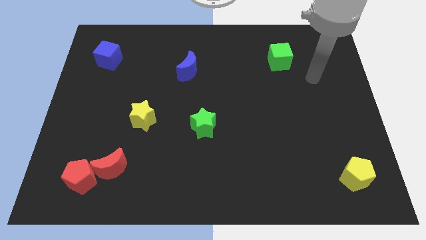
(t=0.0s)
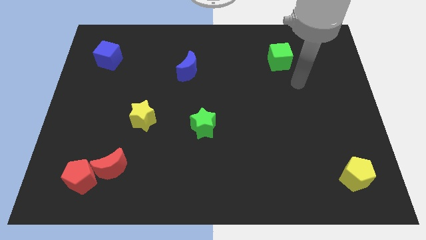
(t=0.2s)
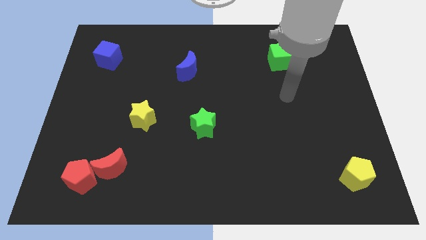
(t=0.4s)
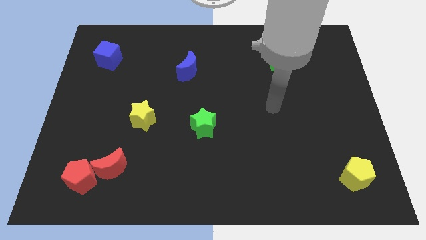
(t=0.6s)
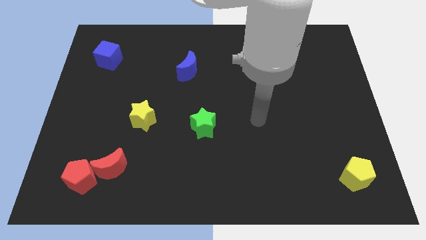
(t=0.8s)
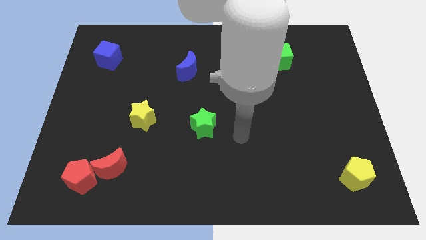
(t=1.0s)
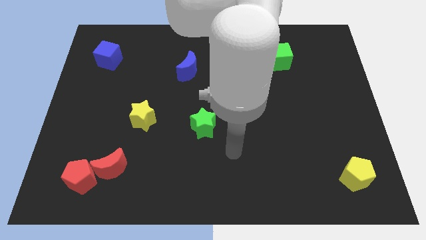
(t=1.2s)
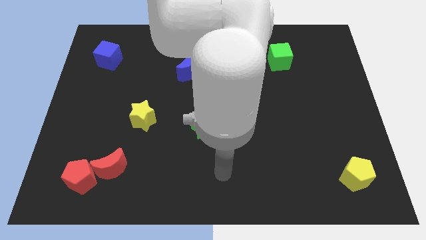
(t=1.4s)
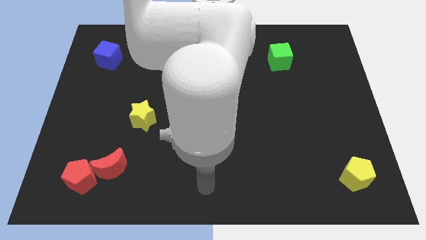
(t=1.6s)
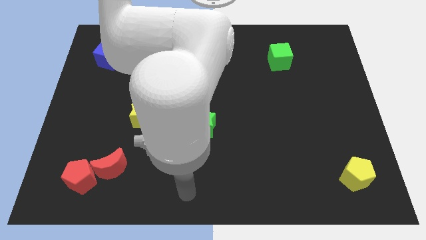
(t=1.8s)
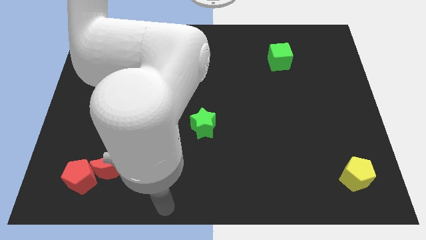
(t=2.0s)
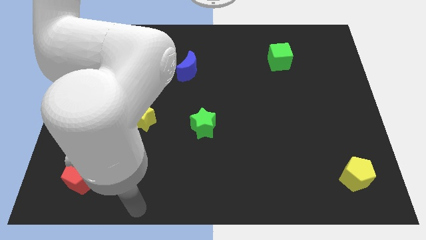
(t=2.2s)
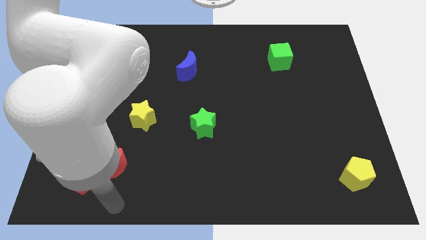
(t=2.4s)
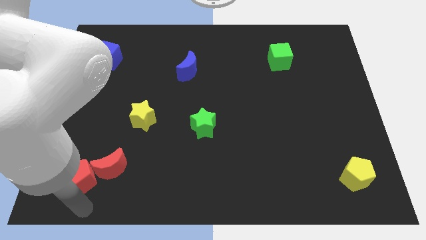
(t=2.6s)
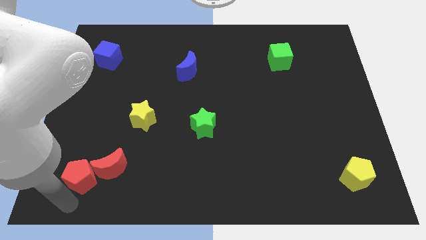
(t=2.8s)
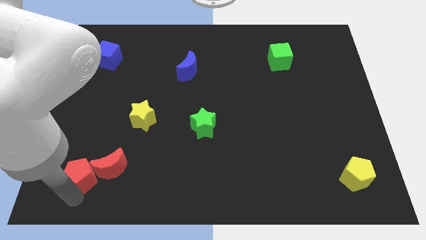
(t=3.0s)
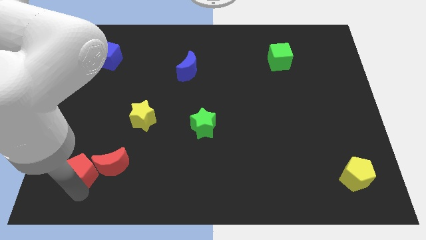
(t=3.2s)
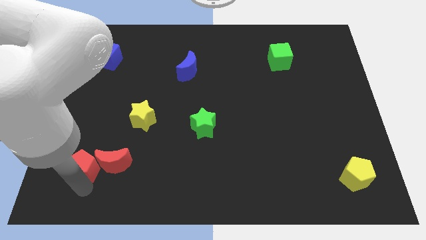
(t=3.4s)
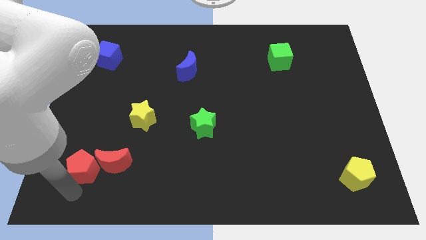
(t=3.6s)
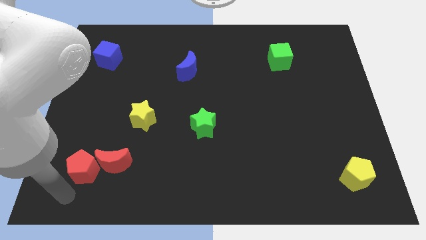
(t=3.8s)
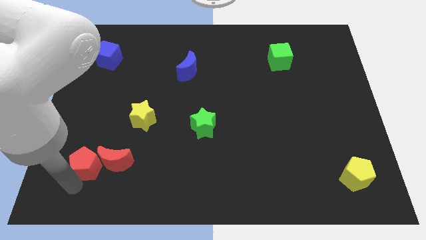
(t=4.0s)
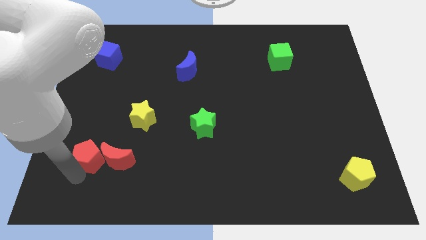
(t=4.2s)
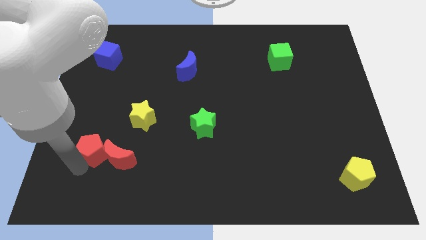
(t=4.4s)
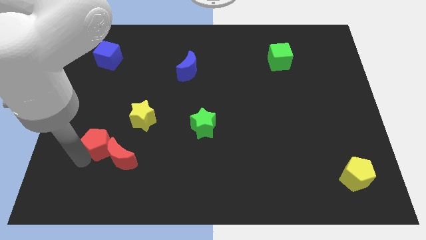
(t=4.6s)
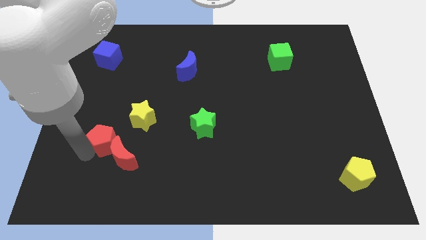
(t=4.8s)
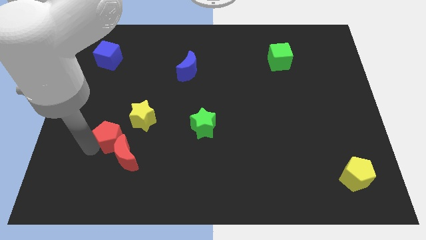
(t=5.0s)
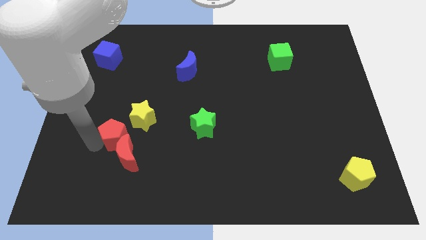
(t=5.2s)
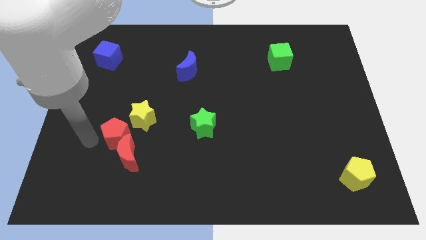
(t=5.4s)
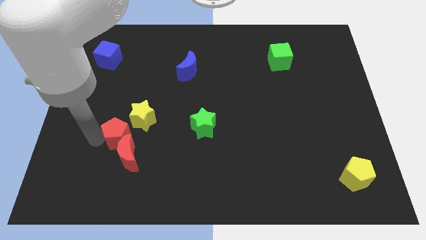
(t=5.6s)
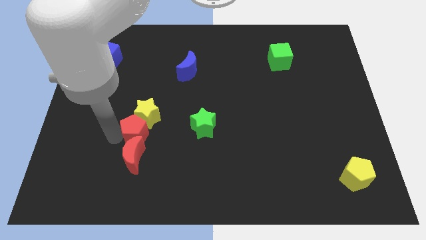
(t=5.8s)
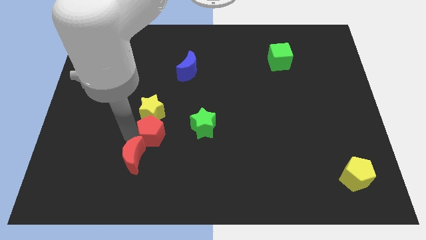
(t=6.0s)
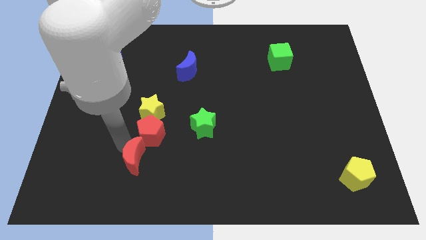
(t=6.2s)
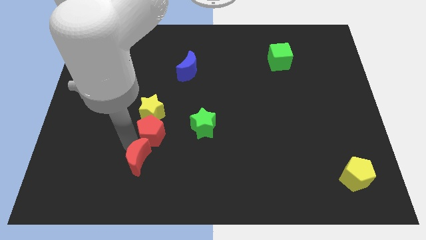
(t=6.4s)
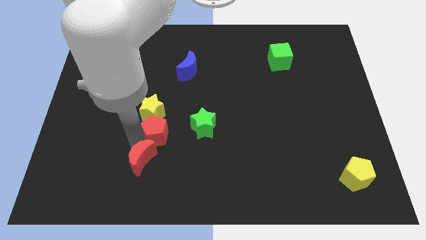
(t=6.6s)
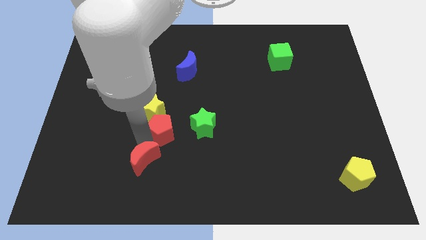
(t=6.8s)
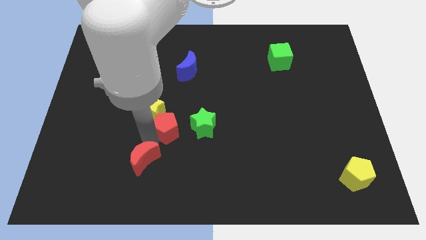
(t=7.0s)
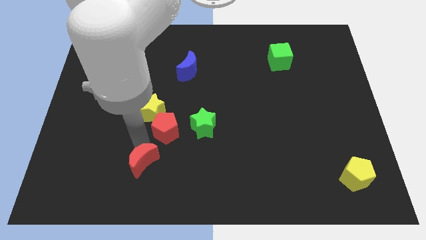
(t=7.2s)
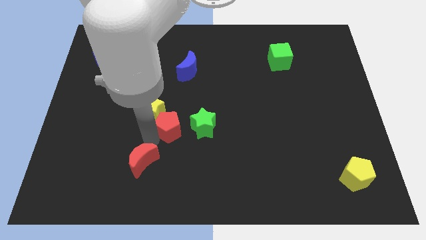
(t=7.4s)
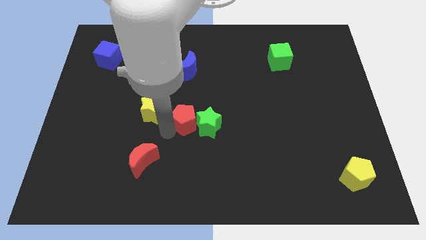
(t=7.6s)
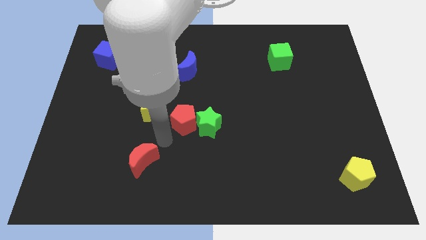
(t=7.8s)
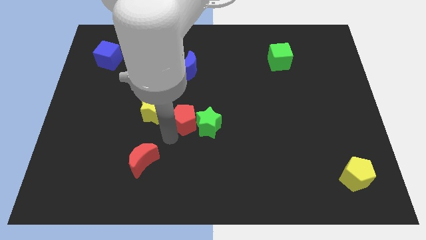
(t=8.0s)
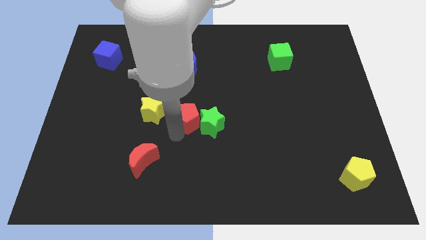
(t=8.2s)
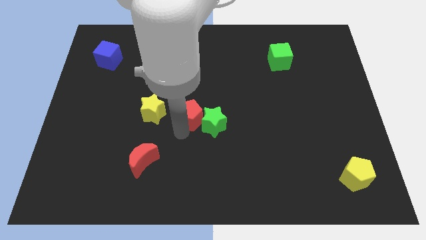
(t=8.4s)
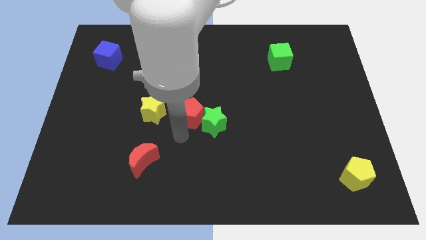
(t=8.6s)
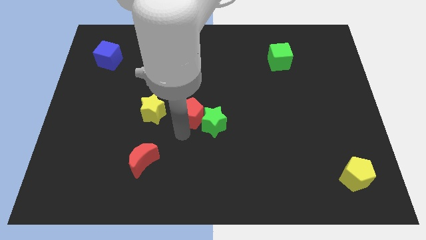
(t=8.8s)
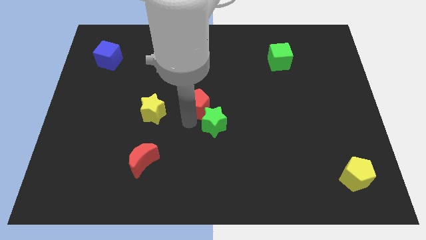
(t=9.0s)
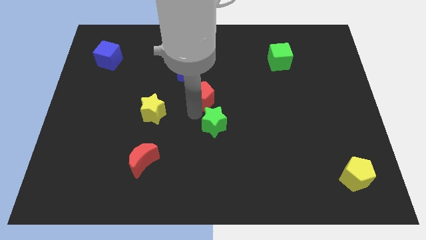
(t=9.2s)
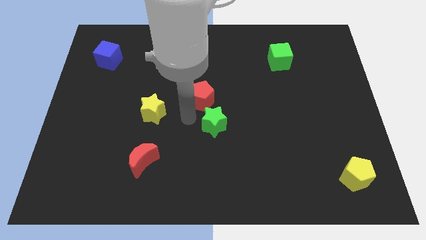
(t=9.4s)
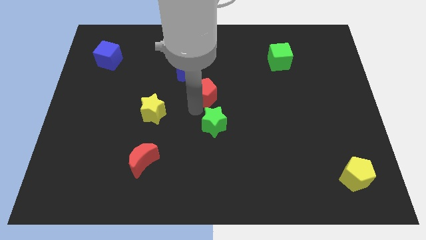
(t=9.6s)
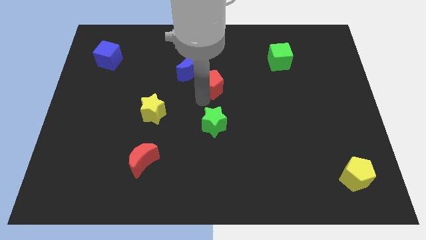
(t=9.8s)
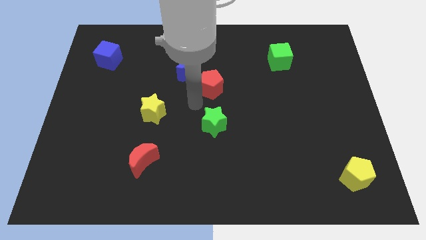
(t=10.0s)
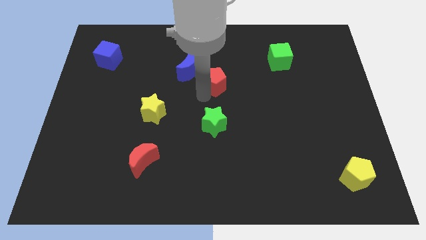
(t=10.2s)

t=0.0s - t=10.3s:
slide the red pentagon just right of the blue moon

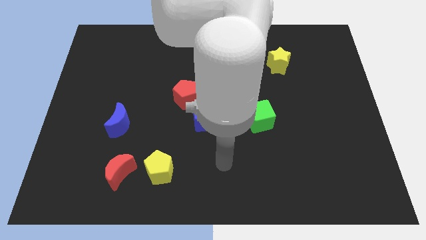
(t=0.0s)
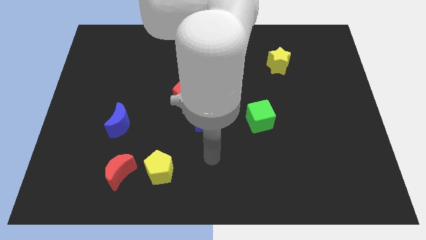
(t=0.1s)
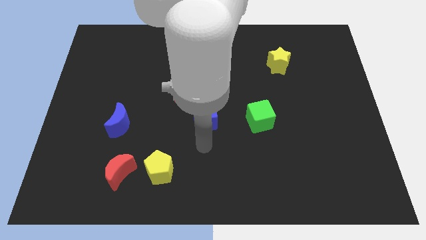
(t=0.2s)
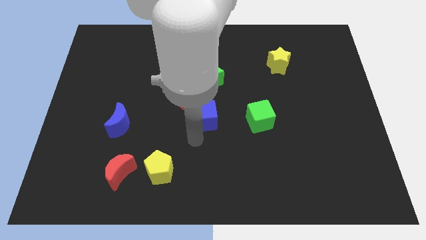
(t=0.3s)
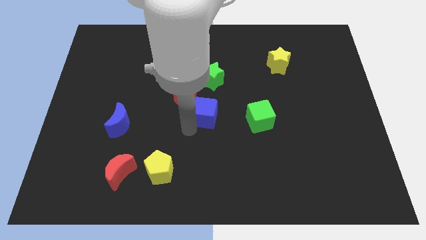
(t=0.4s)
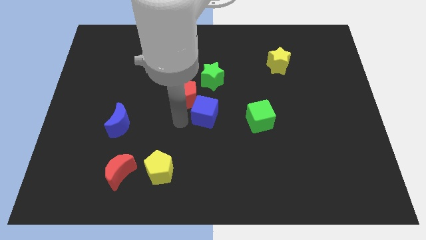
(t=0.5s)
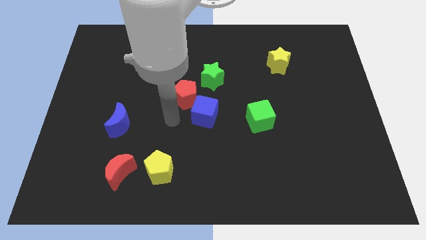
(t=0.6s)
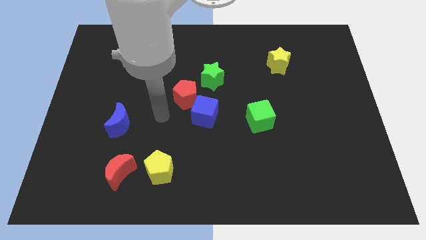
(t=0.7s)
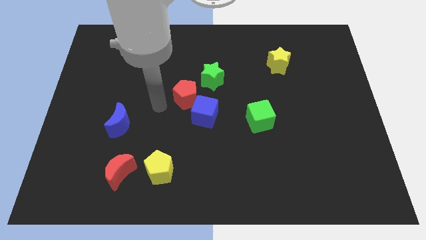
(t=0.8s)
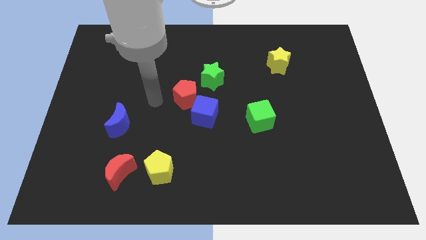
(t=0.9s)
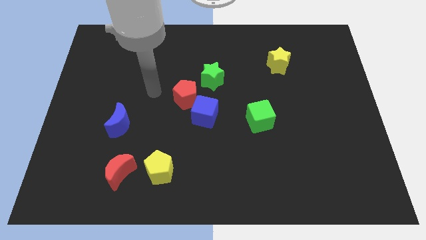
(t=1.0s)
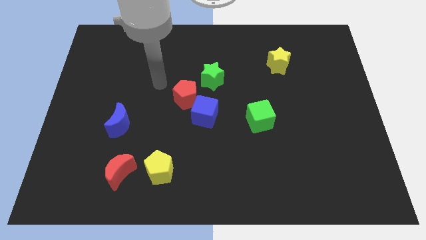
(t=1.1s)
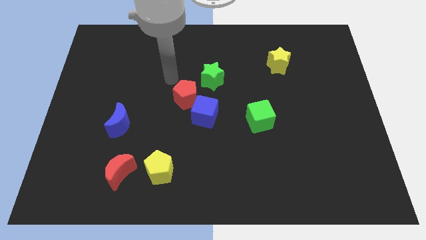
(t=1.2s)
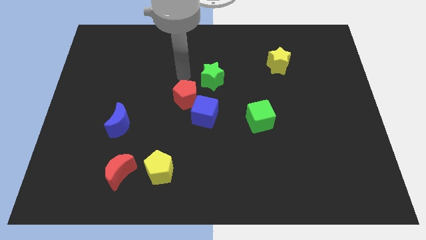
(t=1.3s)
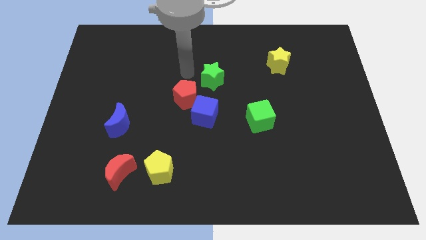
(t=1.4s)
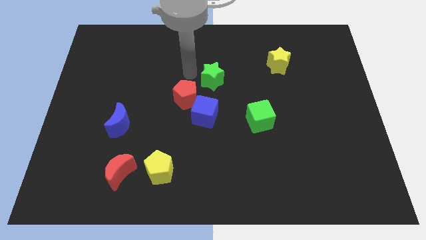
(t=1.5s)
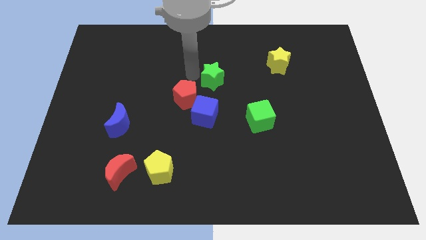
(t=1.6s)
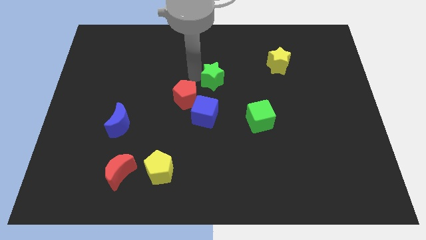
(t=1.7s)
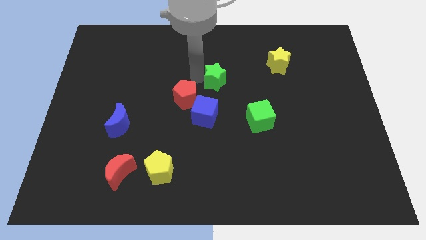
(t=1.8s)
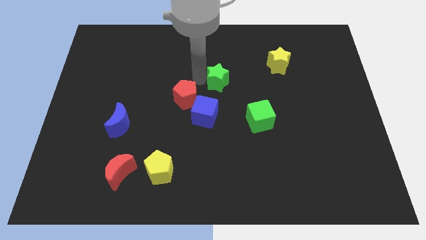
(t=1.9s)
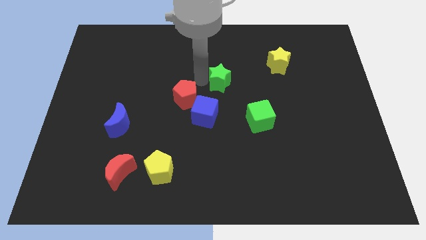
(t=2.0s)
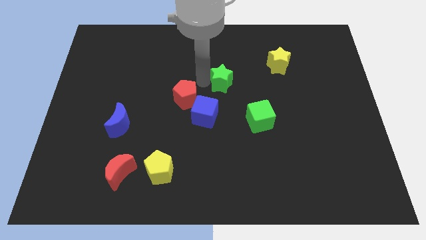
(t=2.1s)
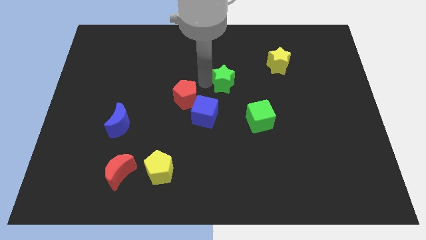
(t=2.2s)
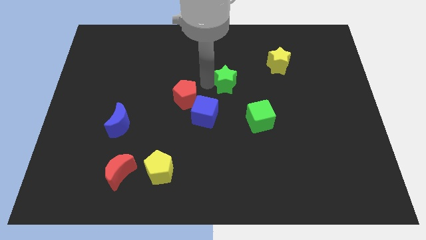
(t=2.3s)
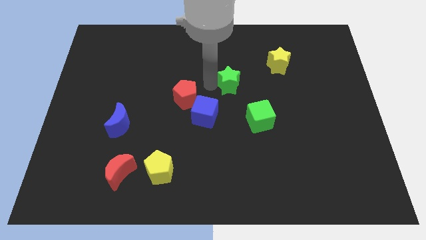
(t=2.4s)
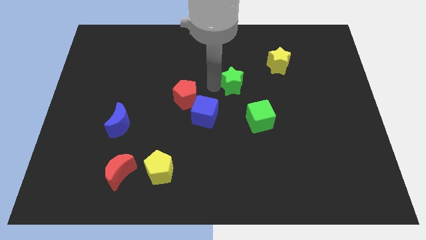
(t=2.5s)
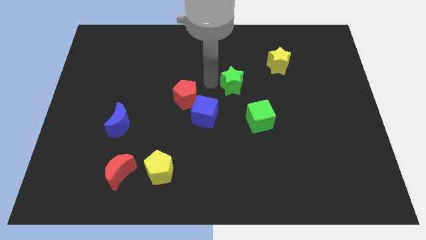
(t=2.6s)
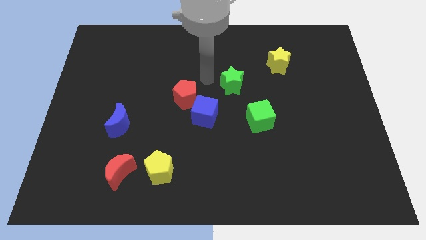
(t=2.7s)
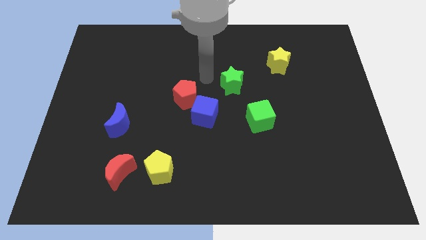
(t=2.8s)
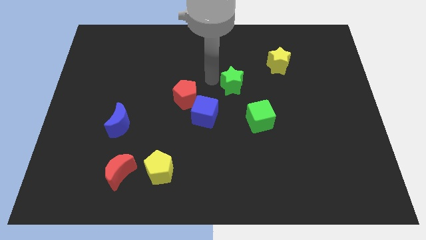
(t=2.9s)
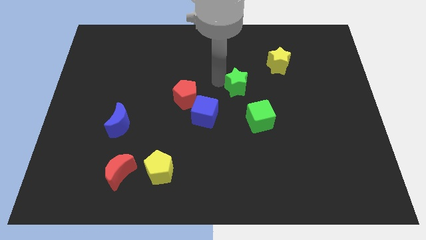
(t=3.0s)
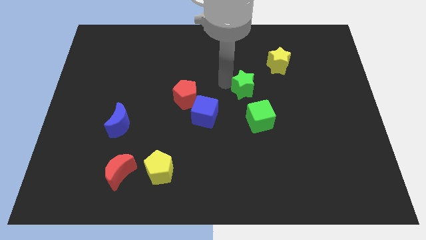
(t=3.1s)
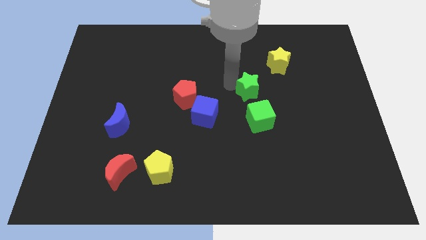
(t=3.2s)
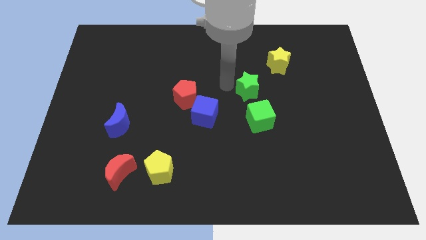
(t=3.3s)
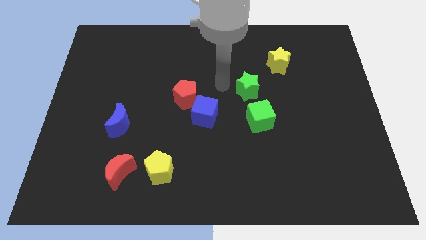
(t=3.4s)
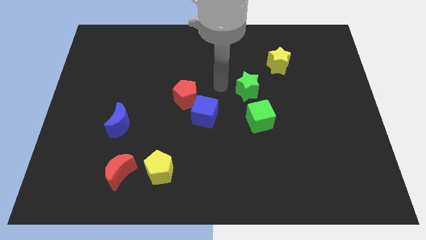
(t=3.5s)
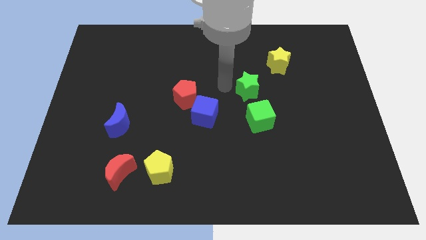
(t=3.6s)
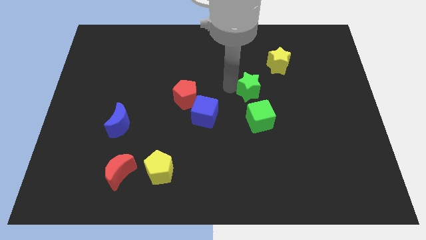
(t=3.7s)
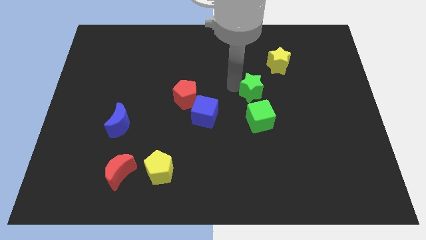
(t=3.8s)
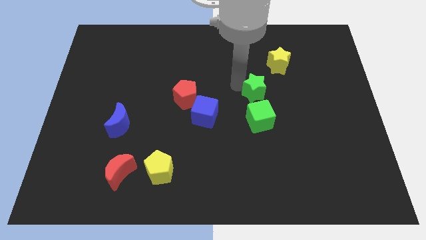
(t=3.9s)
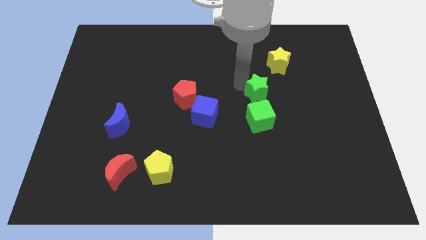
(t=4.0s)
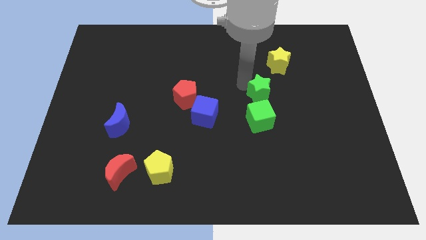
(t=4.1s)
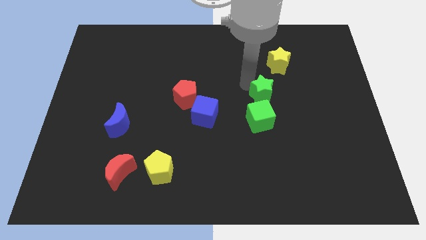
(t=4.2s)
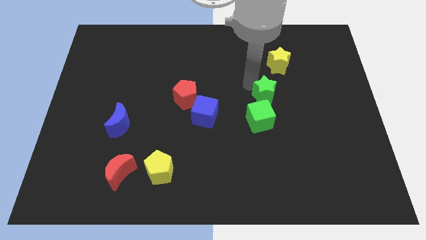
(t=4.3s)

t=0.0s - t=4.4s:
slide the green star to the bottom of the yellow star
